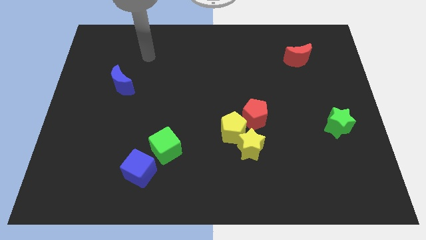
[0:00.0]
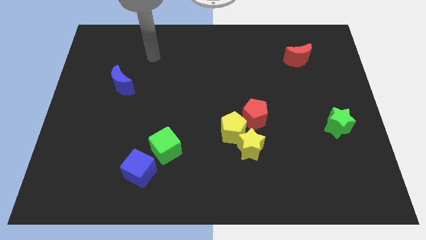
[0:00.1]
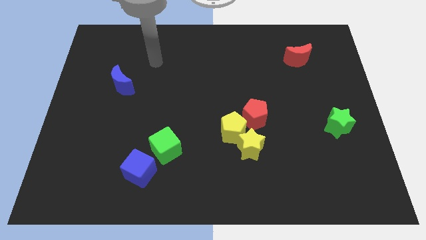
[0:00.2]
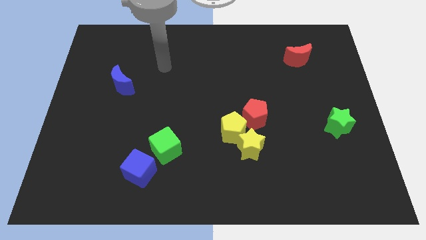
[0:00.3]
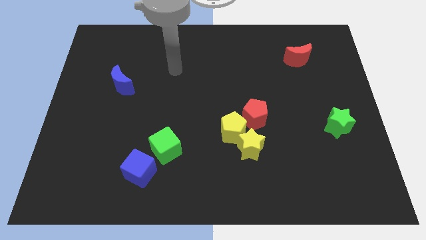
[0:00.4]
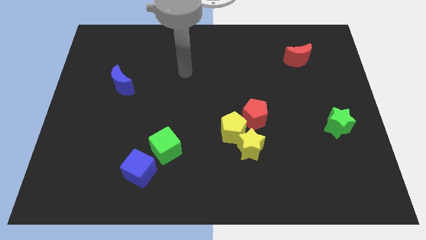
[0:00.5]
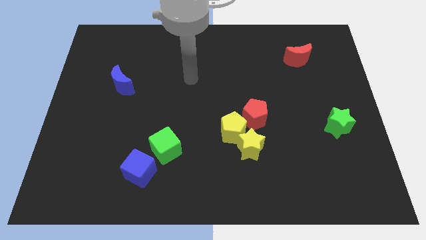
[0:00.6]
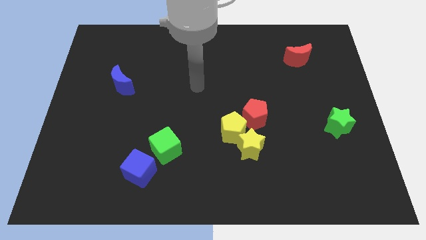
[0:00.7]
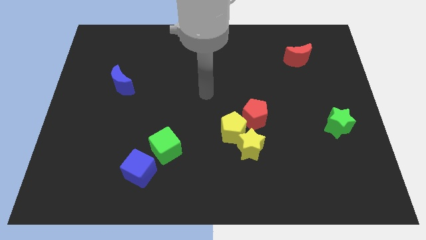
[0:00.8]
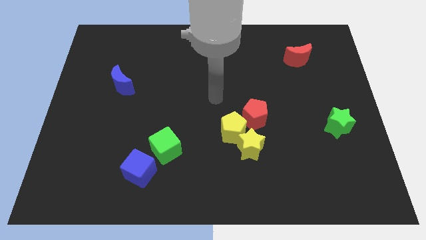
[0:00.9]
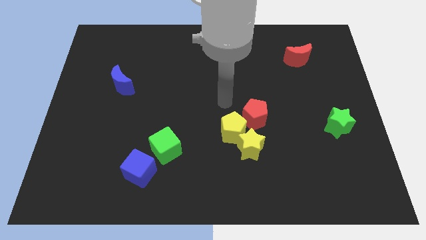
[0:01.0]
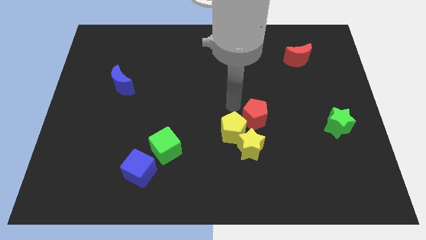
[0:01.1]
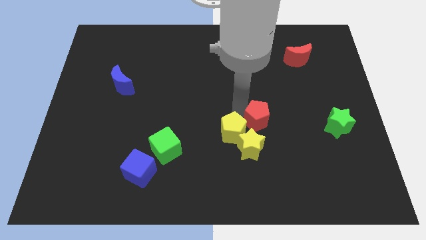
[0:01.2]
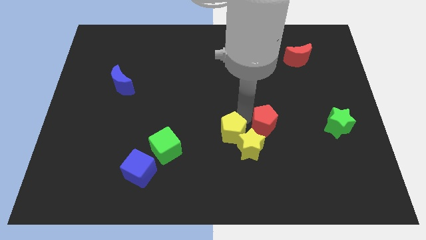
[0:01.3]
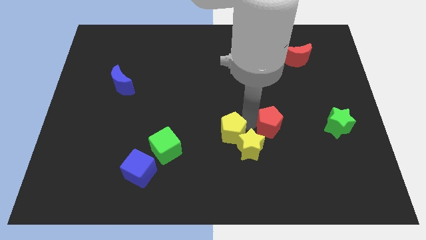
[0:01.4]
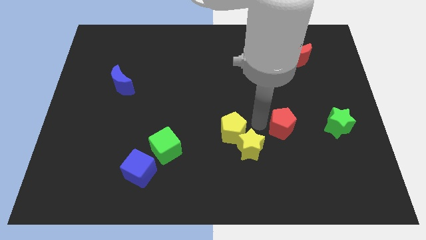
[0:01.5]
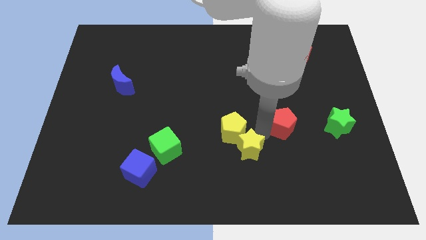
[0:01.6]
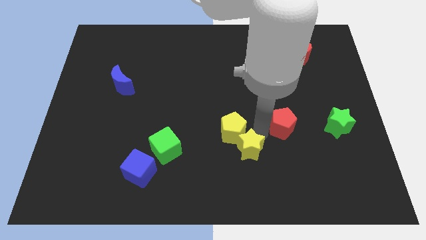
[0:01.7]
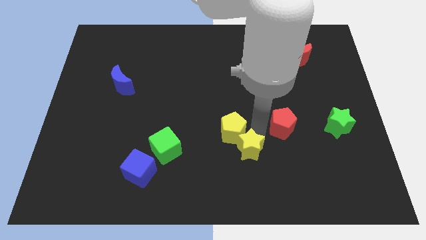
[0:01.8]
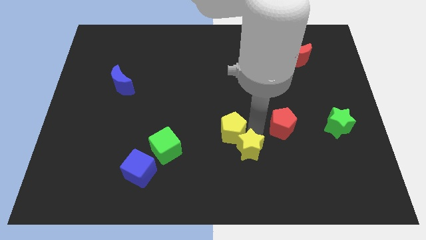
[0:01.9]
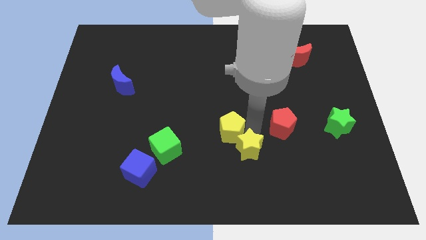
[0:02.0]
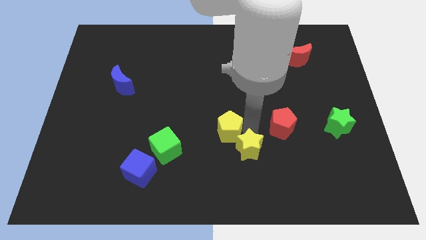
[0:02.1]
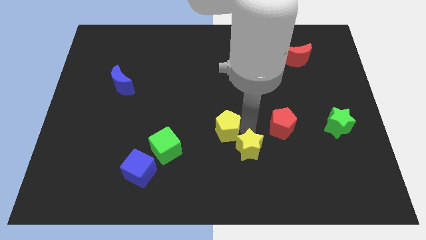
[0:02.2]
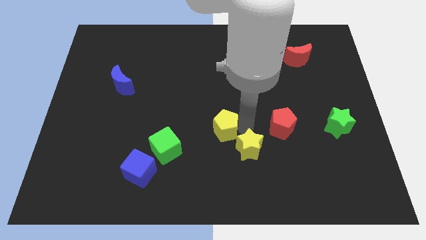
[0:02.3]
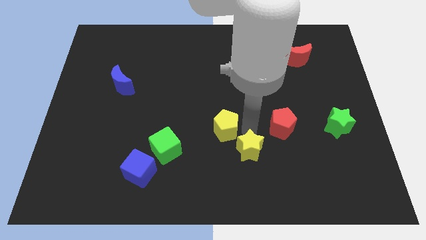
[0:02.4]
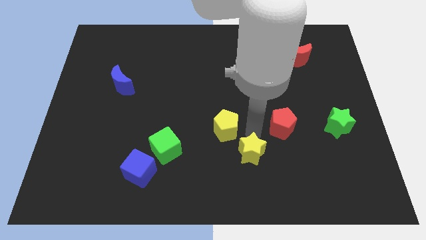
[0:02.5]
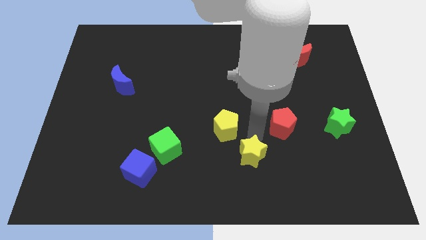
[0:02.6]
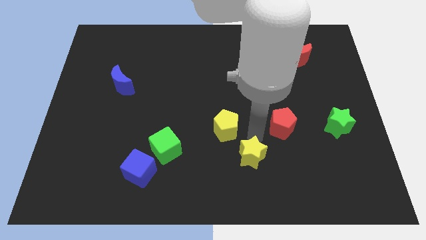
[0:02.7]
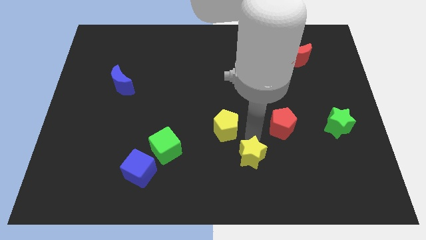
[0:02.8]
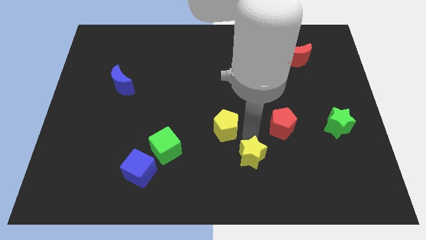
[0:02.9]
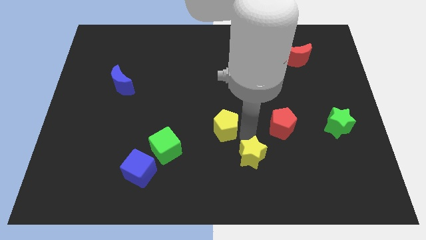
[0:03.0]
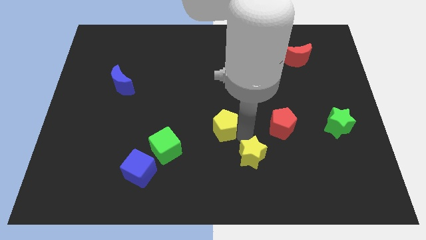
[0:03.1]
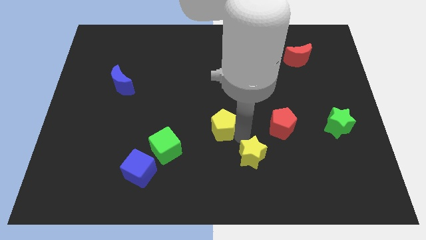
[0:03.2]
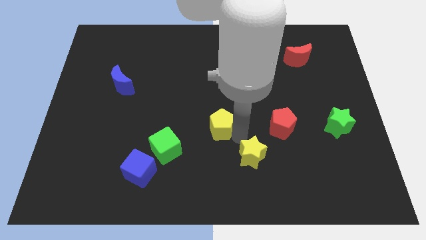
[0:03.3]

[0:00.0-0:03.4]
pull the yellow pentagon apart from the yellow star and red pentagon

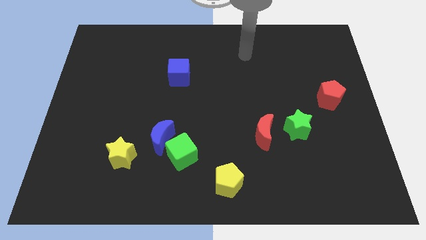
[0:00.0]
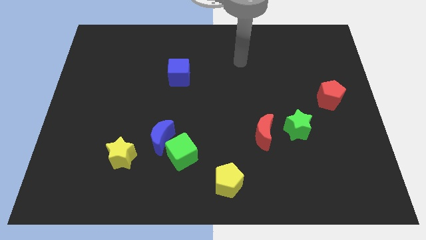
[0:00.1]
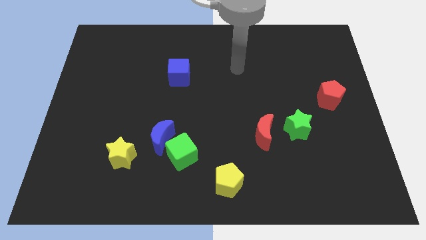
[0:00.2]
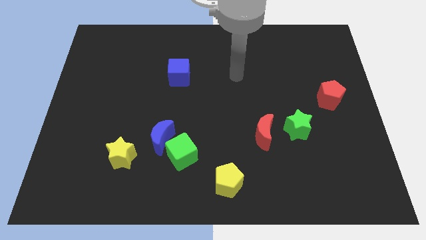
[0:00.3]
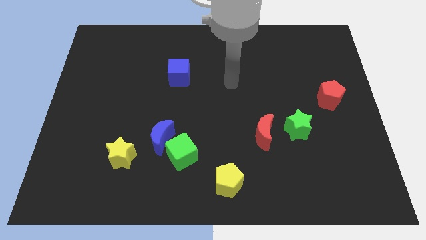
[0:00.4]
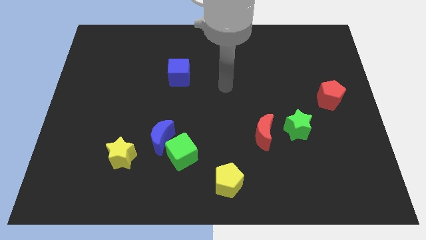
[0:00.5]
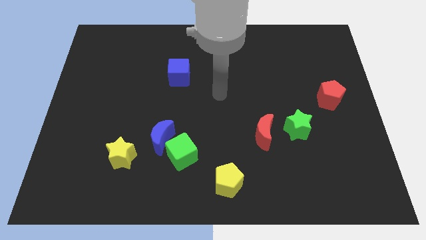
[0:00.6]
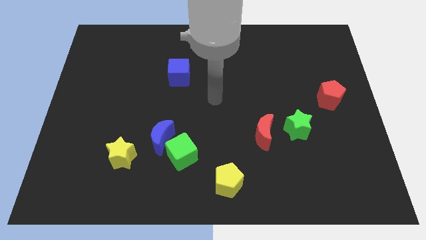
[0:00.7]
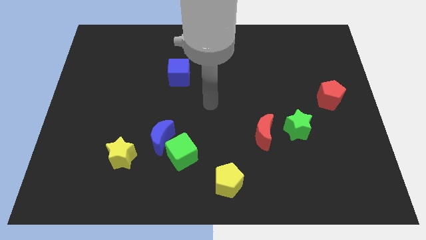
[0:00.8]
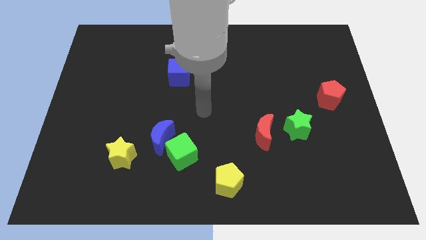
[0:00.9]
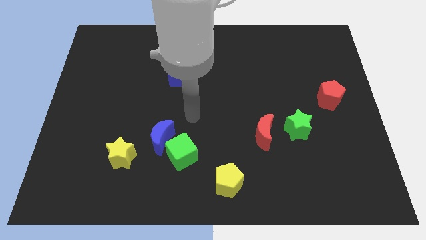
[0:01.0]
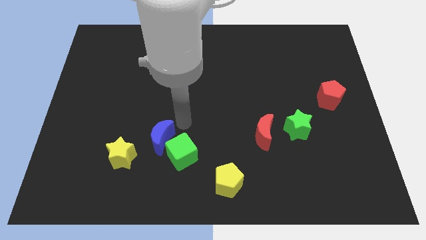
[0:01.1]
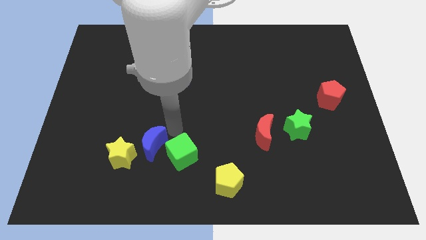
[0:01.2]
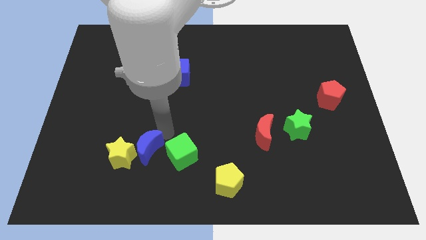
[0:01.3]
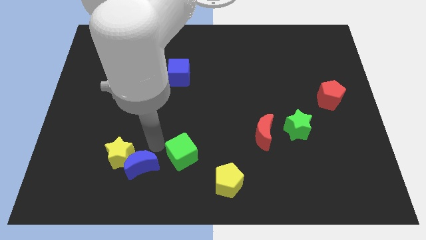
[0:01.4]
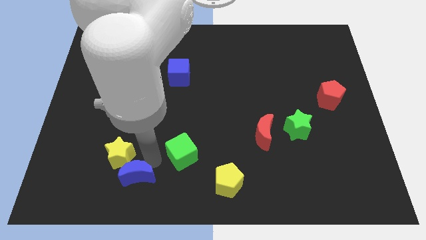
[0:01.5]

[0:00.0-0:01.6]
separate the green cube from the blue moon

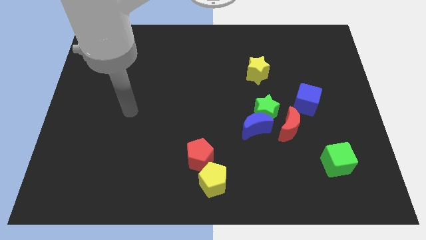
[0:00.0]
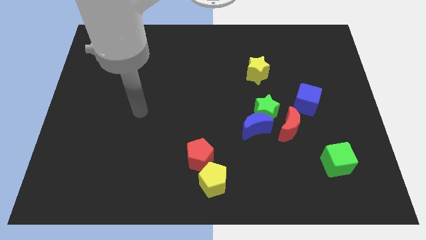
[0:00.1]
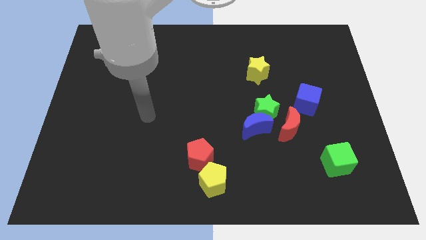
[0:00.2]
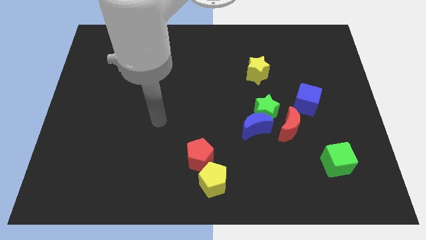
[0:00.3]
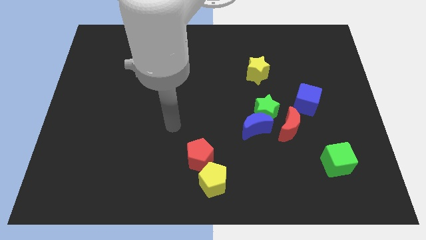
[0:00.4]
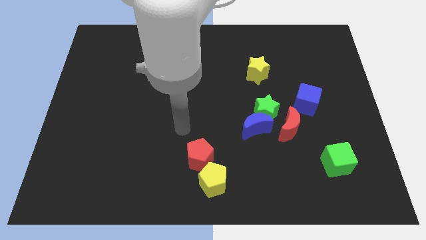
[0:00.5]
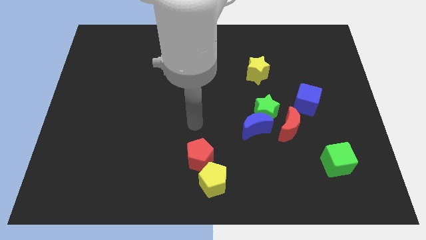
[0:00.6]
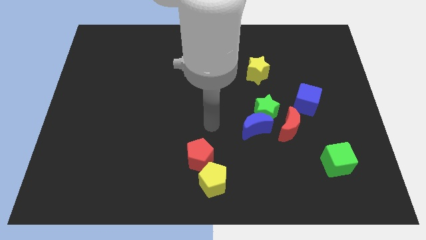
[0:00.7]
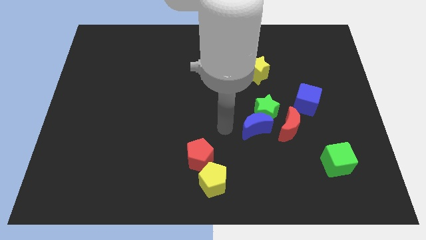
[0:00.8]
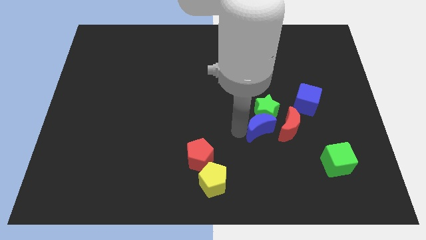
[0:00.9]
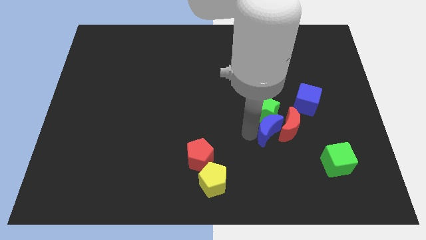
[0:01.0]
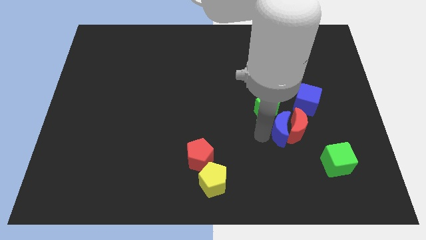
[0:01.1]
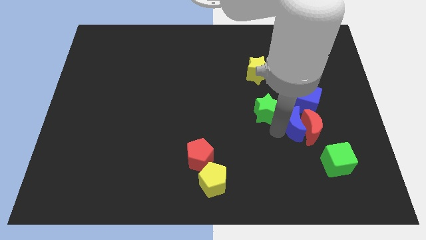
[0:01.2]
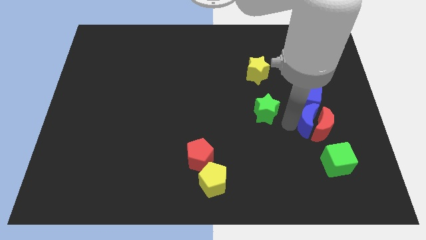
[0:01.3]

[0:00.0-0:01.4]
separate the green star from the blue moon and red moon

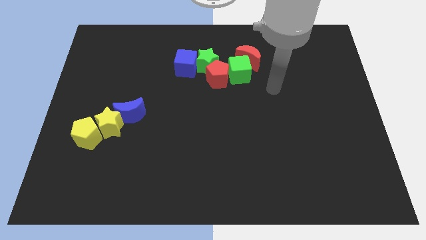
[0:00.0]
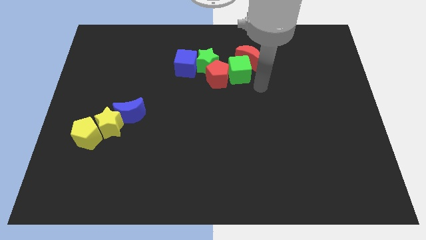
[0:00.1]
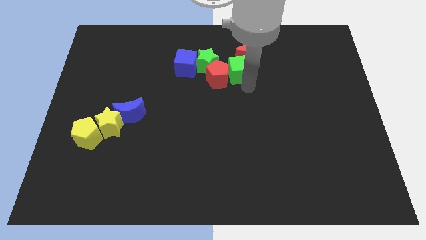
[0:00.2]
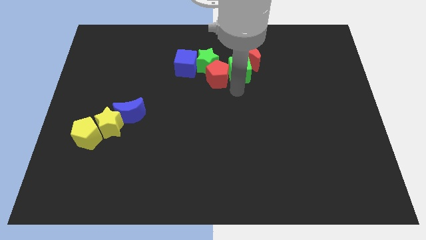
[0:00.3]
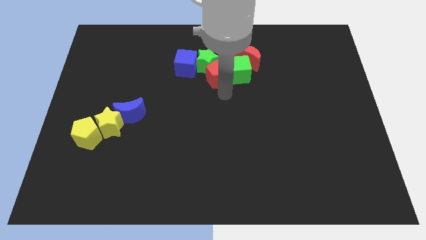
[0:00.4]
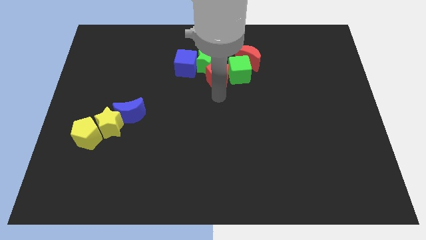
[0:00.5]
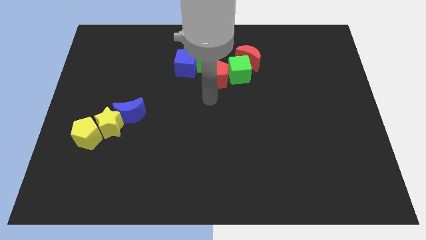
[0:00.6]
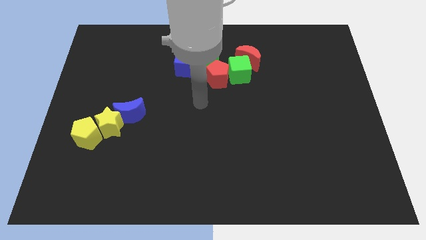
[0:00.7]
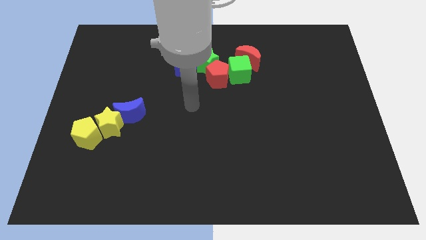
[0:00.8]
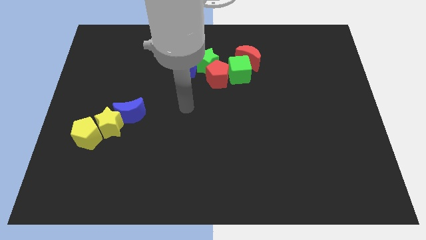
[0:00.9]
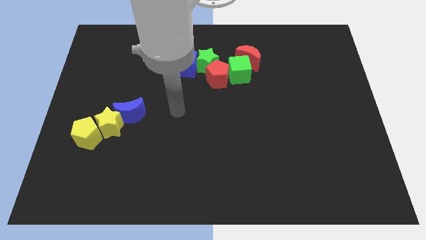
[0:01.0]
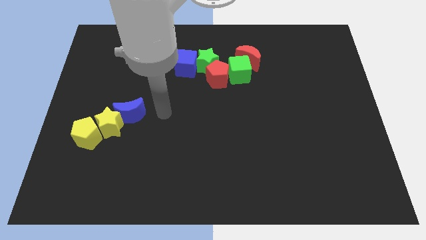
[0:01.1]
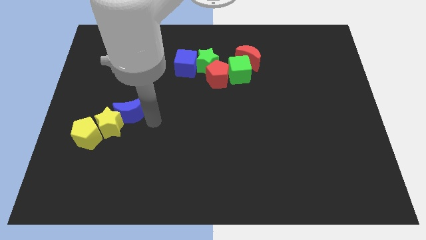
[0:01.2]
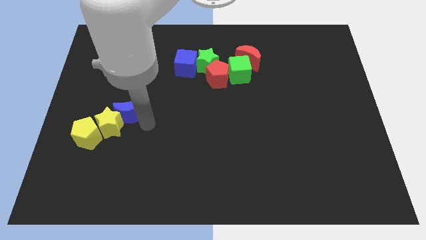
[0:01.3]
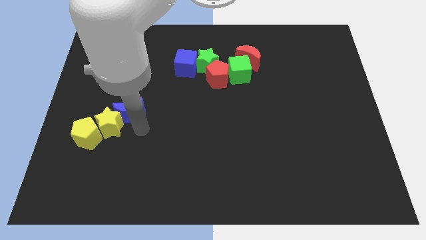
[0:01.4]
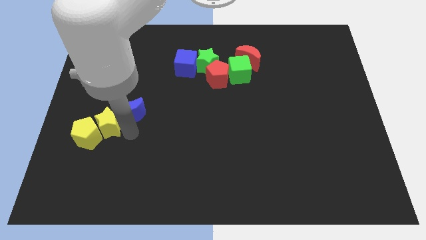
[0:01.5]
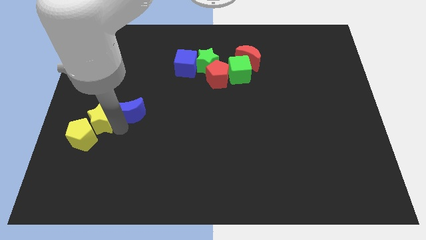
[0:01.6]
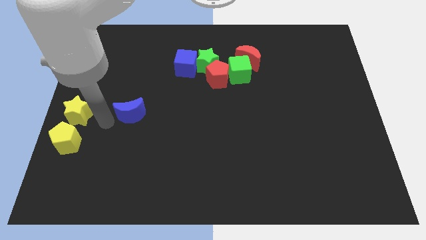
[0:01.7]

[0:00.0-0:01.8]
separate the blue moon from the yellow star

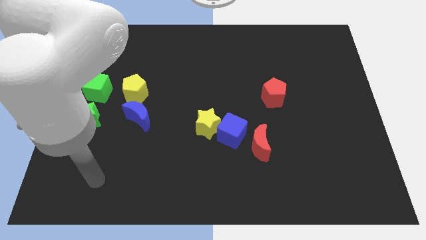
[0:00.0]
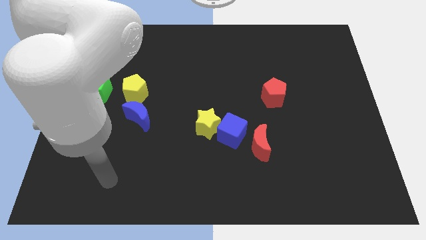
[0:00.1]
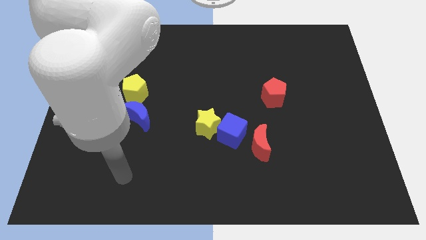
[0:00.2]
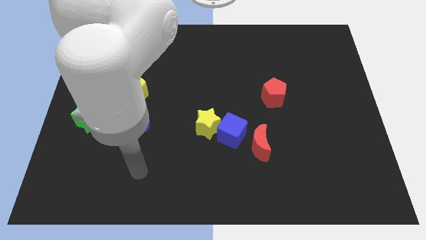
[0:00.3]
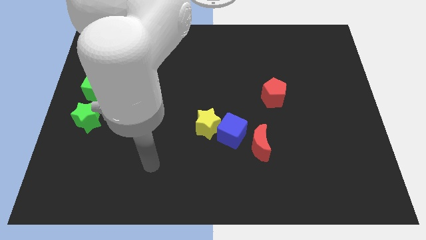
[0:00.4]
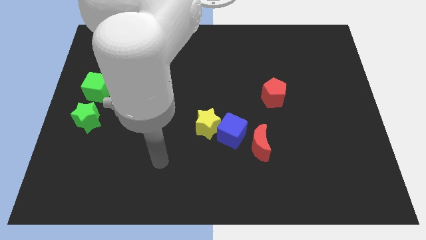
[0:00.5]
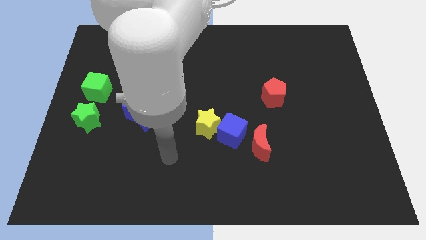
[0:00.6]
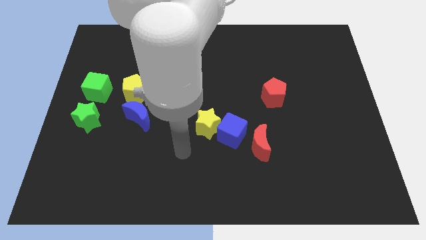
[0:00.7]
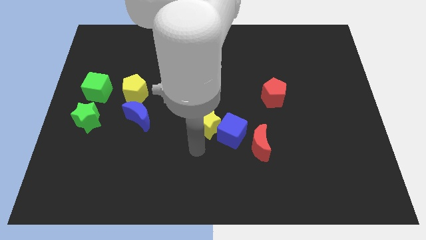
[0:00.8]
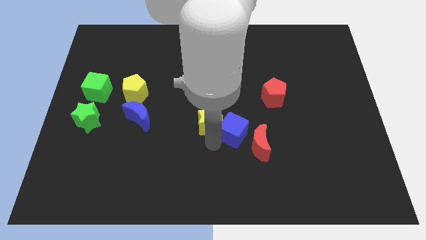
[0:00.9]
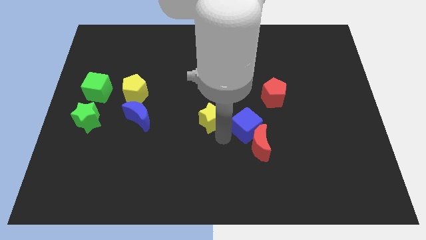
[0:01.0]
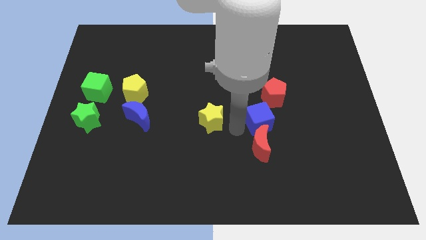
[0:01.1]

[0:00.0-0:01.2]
move the yellow star away from the blue cube
